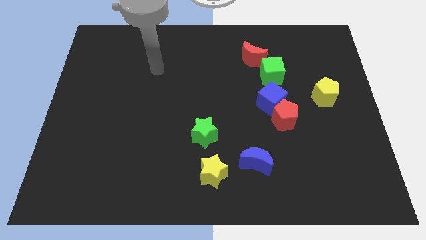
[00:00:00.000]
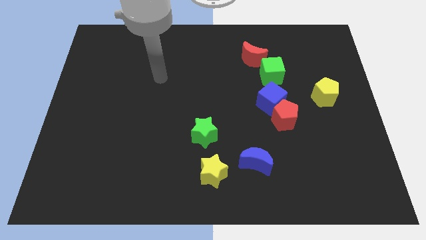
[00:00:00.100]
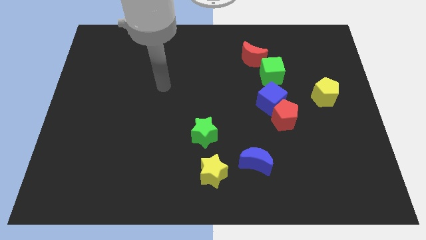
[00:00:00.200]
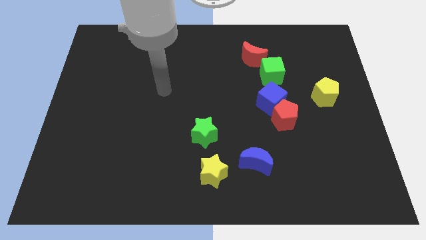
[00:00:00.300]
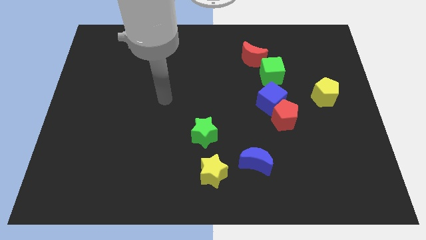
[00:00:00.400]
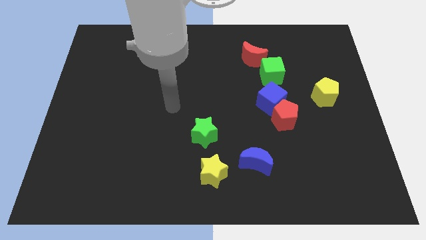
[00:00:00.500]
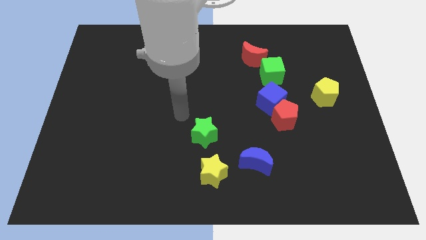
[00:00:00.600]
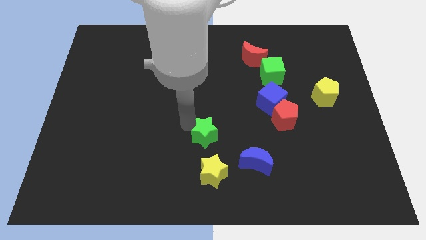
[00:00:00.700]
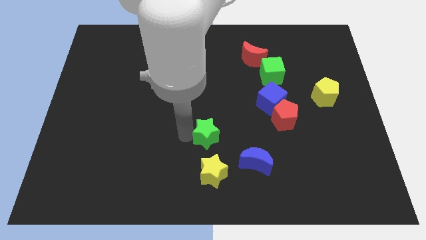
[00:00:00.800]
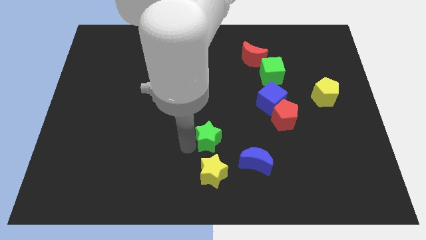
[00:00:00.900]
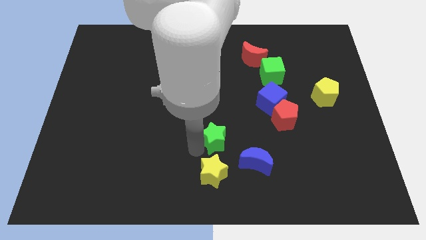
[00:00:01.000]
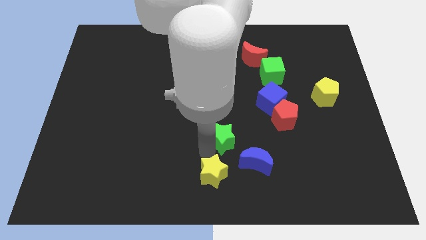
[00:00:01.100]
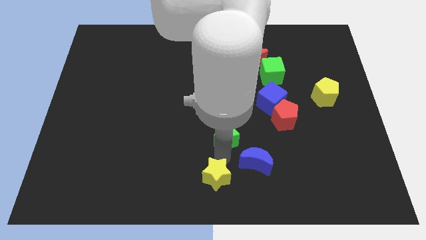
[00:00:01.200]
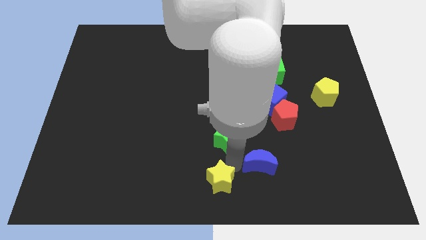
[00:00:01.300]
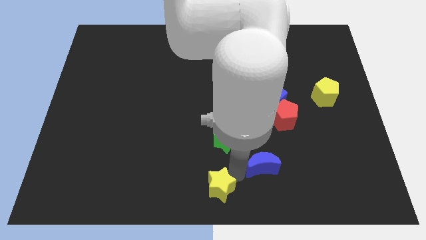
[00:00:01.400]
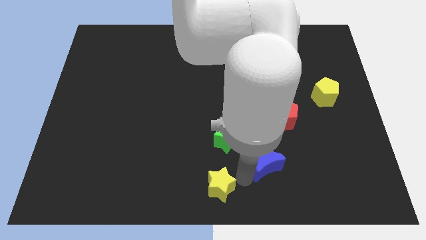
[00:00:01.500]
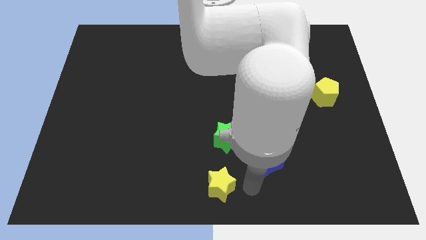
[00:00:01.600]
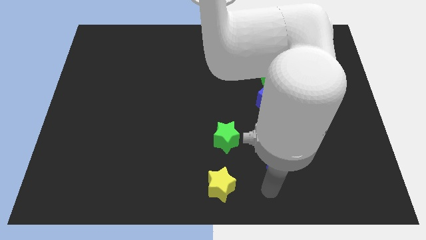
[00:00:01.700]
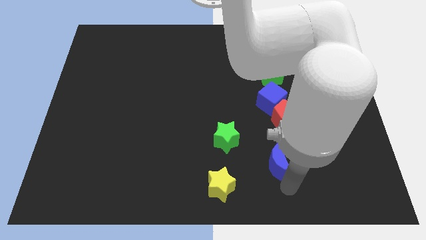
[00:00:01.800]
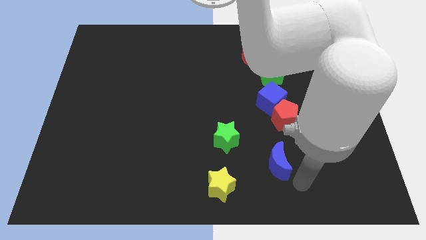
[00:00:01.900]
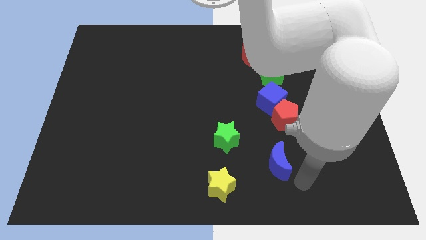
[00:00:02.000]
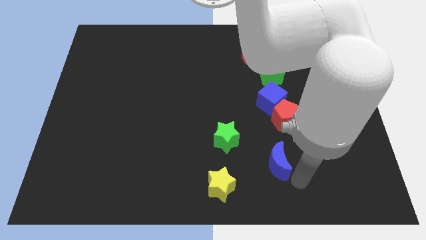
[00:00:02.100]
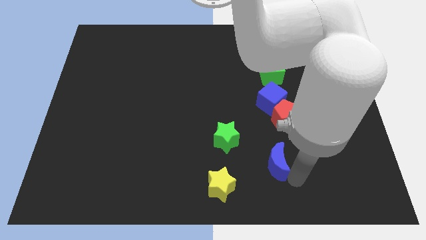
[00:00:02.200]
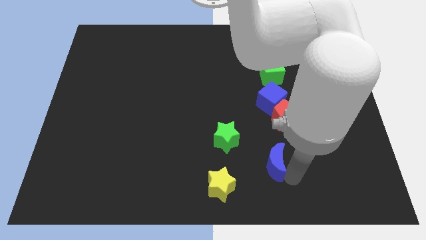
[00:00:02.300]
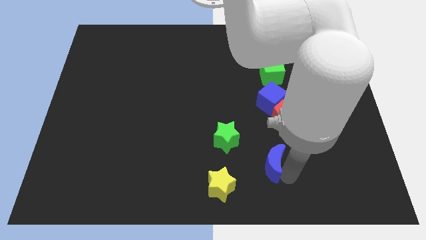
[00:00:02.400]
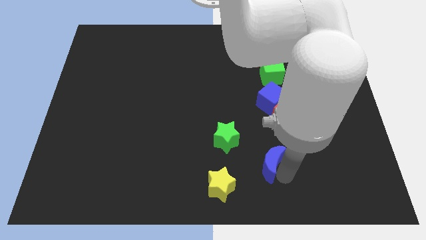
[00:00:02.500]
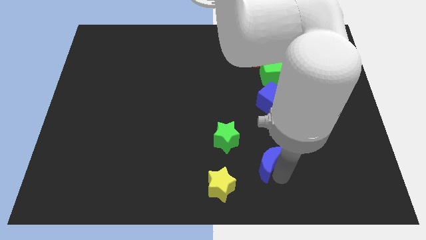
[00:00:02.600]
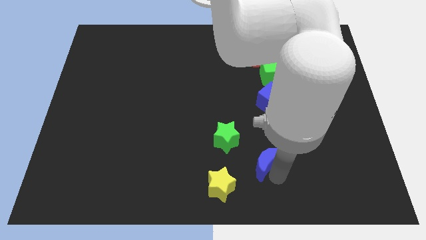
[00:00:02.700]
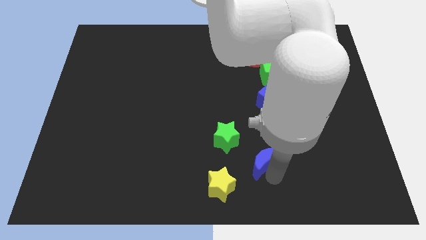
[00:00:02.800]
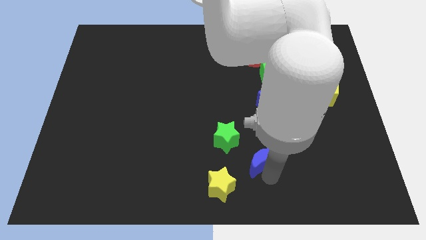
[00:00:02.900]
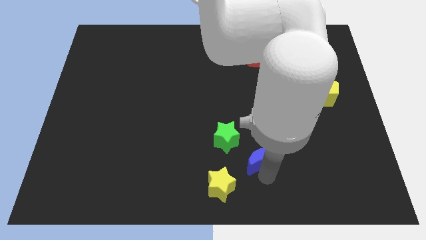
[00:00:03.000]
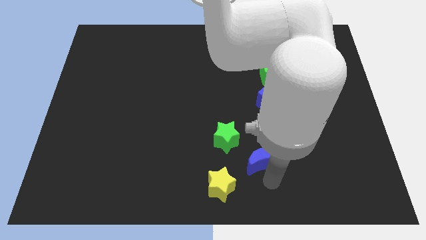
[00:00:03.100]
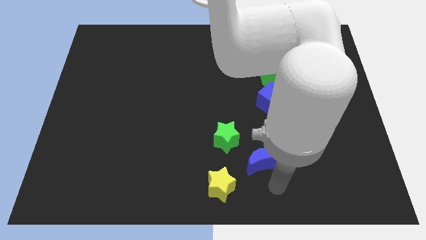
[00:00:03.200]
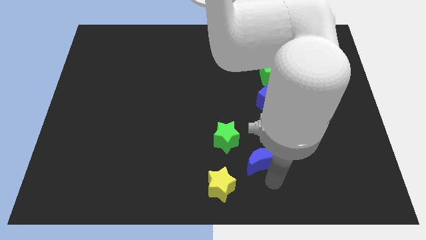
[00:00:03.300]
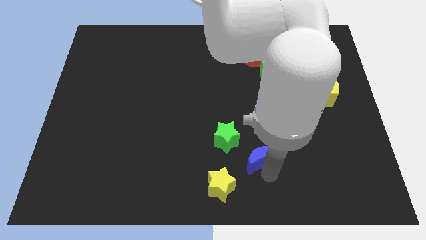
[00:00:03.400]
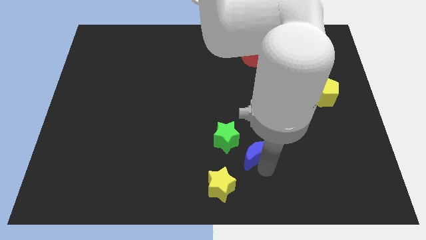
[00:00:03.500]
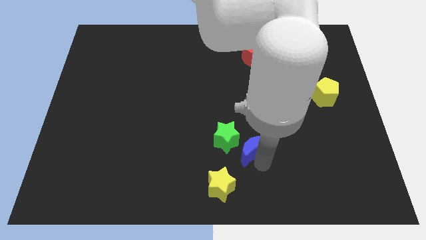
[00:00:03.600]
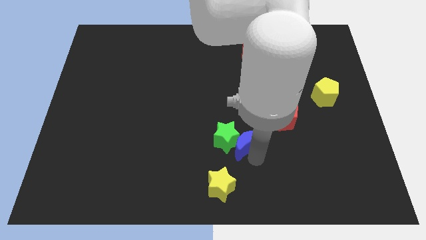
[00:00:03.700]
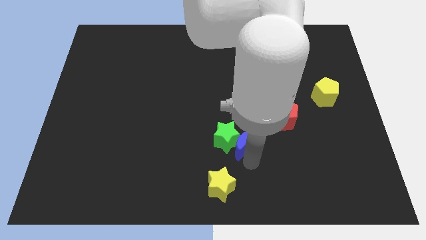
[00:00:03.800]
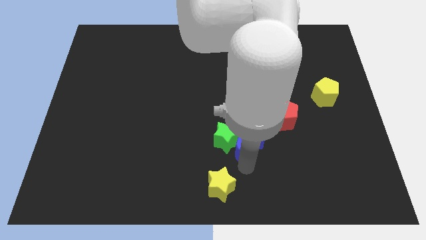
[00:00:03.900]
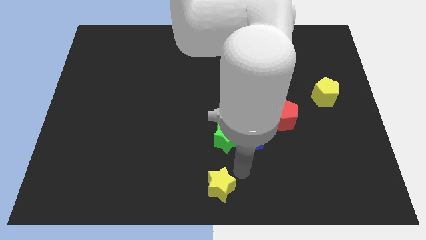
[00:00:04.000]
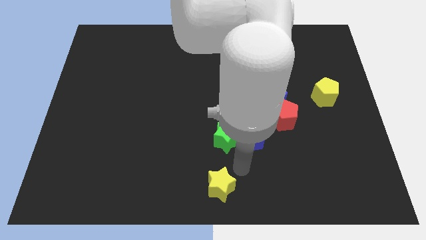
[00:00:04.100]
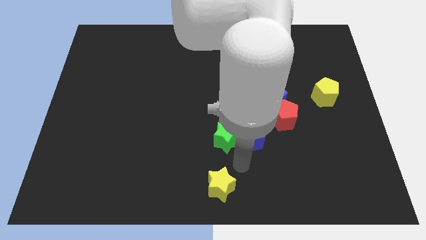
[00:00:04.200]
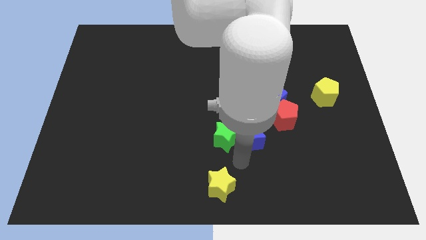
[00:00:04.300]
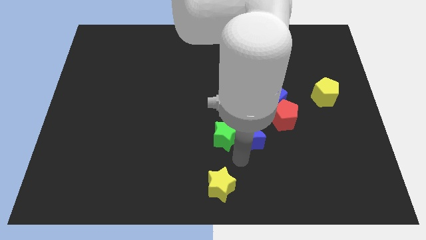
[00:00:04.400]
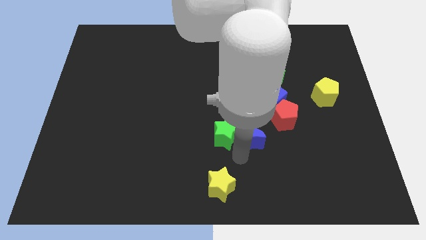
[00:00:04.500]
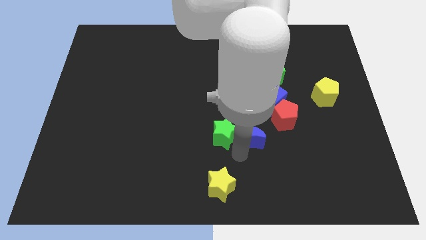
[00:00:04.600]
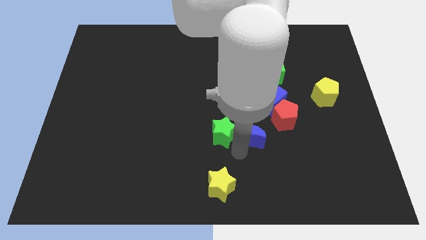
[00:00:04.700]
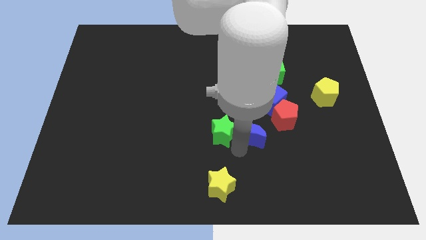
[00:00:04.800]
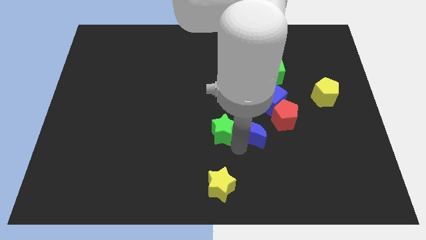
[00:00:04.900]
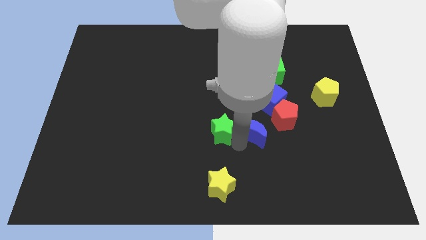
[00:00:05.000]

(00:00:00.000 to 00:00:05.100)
slightly move the blue moon up

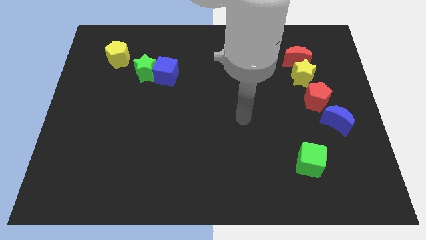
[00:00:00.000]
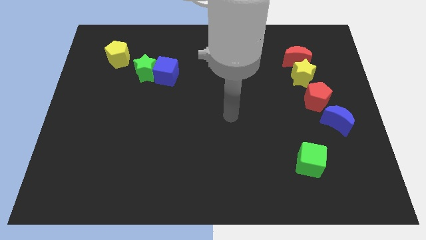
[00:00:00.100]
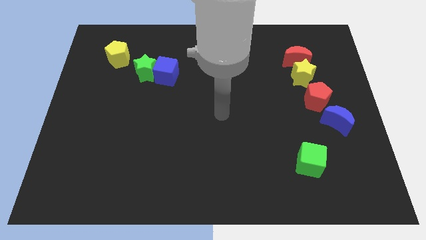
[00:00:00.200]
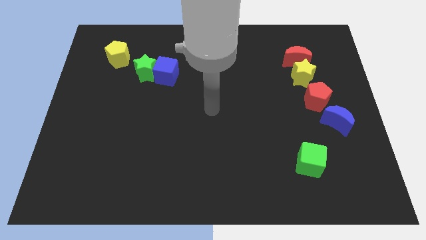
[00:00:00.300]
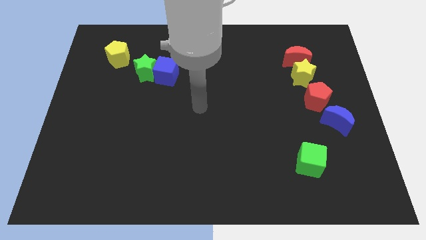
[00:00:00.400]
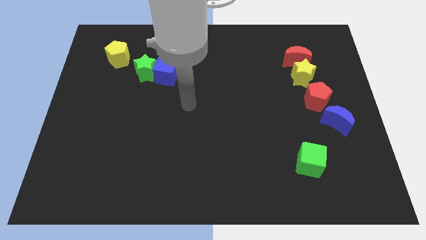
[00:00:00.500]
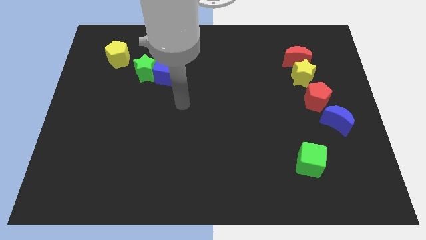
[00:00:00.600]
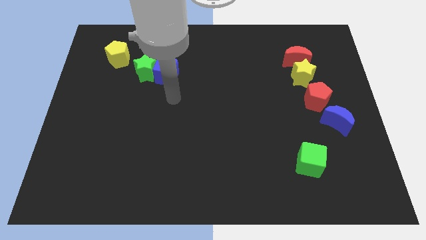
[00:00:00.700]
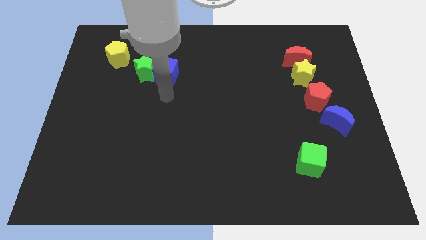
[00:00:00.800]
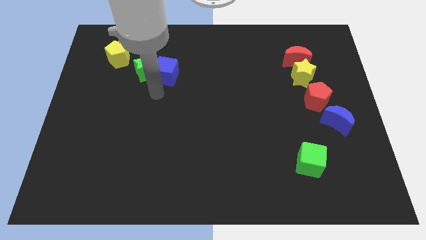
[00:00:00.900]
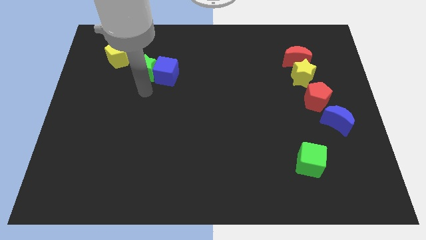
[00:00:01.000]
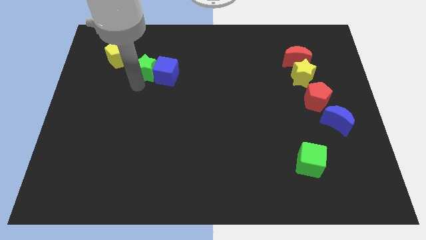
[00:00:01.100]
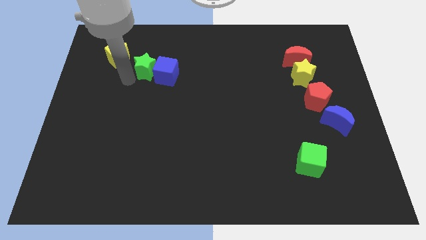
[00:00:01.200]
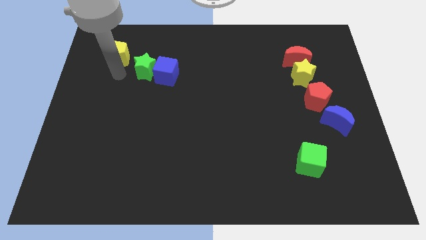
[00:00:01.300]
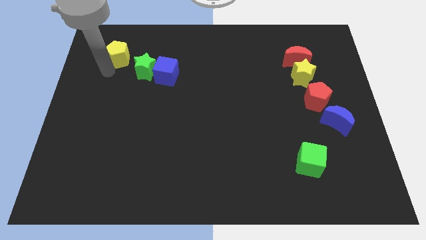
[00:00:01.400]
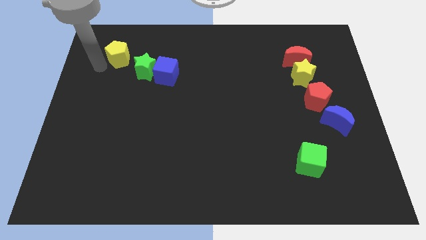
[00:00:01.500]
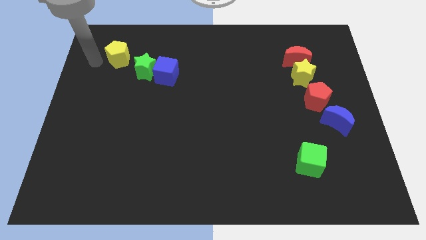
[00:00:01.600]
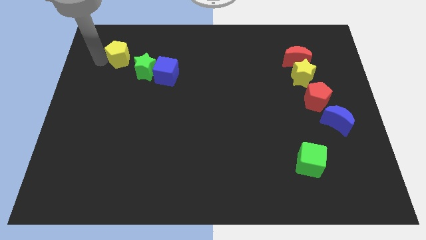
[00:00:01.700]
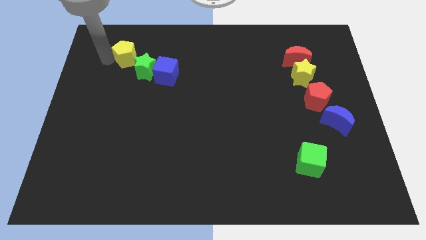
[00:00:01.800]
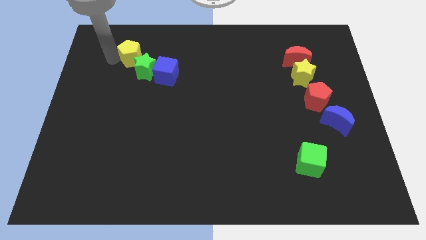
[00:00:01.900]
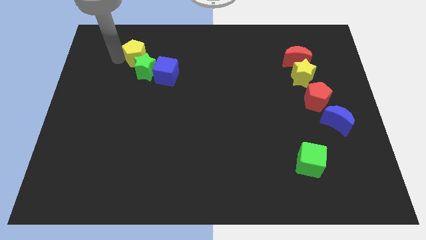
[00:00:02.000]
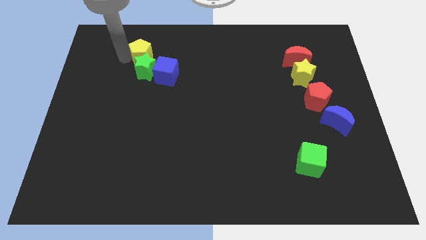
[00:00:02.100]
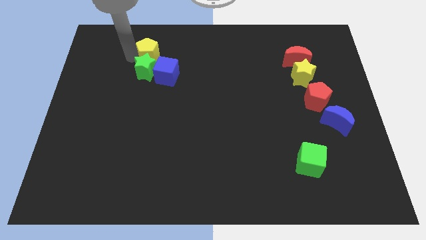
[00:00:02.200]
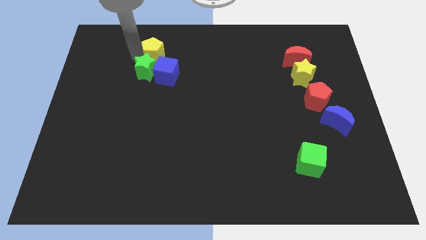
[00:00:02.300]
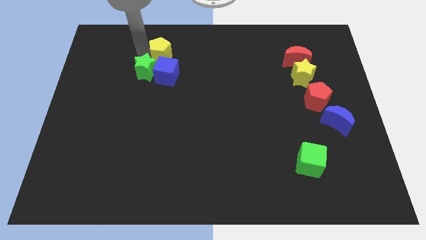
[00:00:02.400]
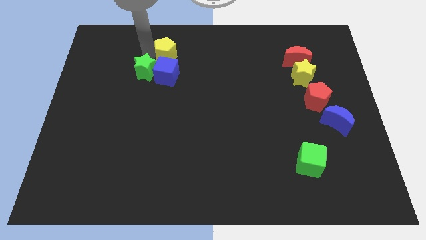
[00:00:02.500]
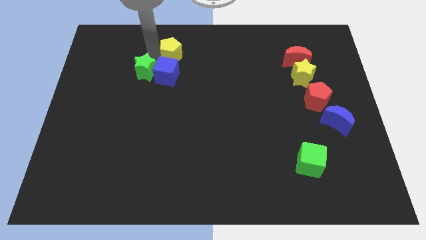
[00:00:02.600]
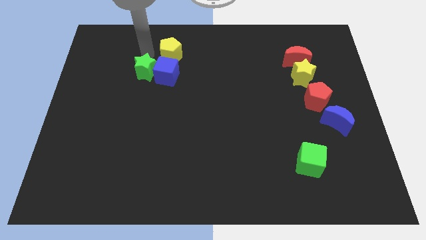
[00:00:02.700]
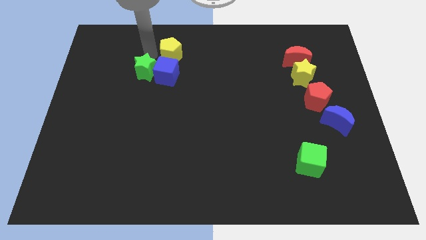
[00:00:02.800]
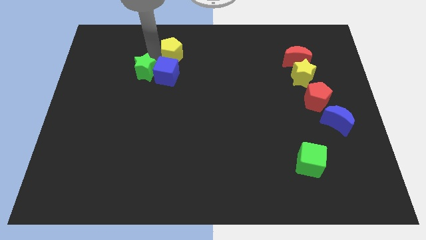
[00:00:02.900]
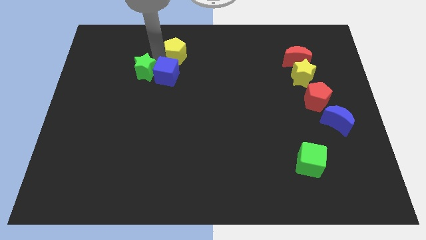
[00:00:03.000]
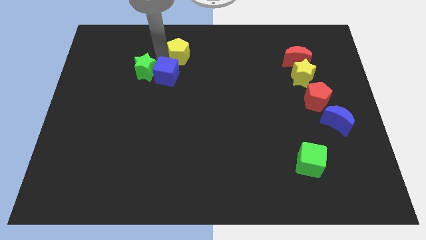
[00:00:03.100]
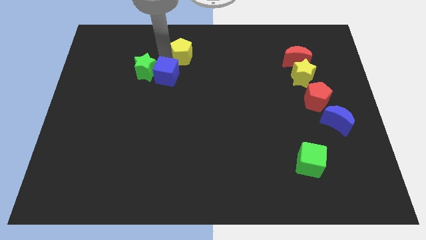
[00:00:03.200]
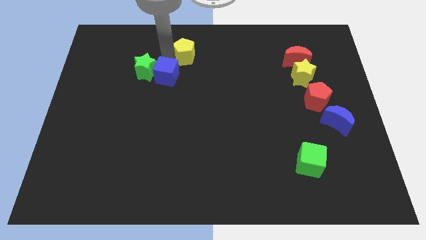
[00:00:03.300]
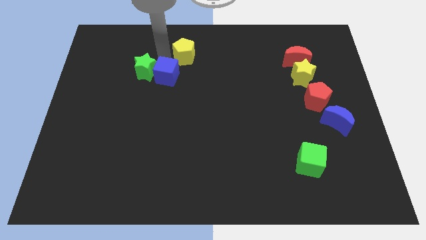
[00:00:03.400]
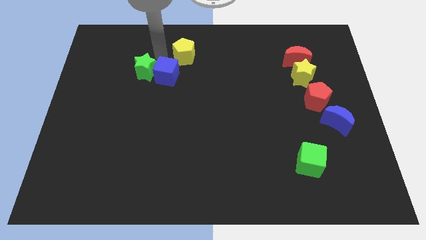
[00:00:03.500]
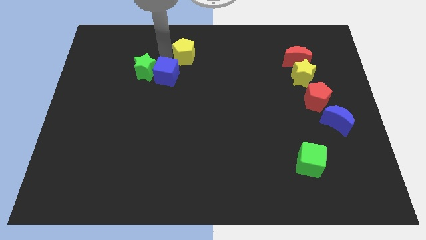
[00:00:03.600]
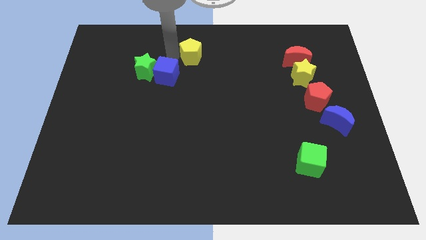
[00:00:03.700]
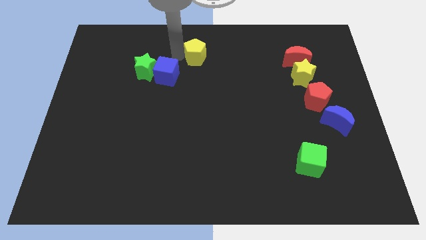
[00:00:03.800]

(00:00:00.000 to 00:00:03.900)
push the yellow pentagon to the right
